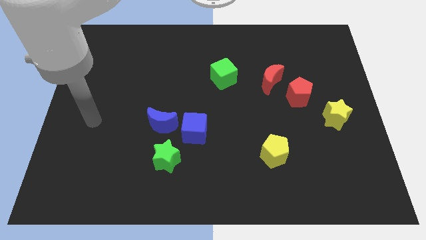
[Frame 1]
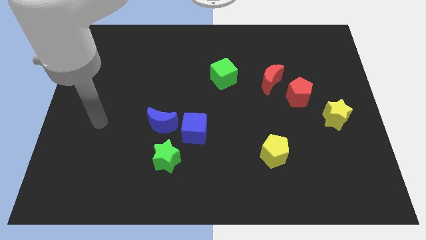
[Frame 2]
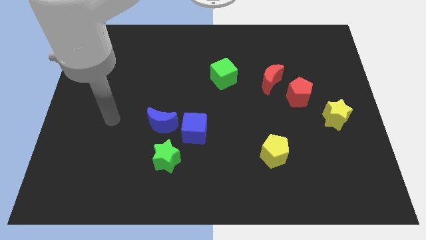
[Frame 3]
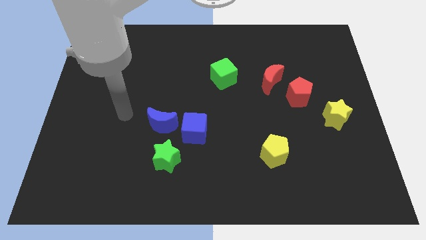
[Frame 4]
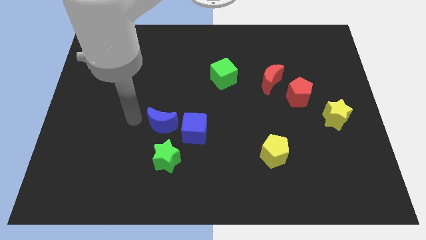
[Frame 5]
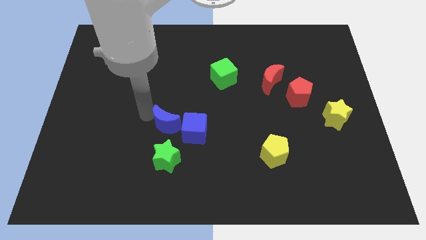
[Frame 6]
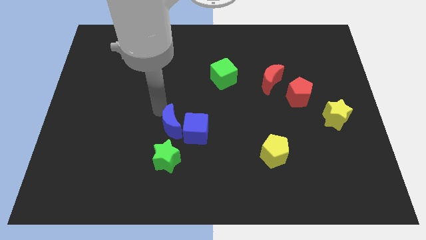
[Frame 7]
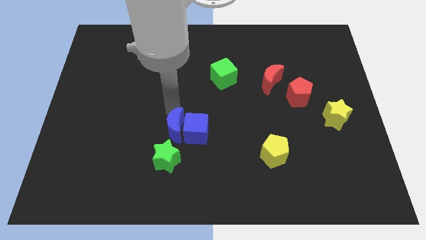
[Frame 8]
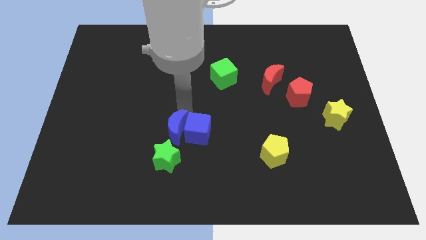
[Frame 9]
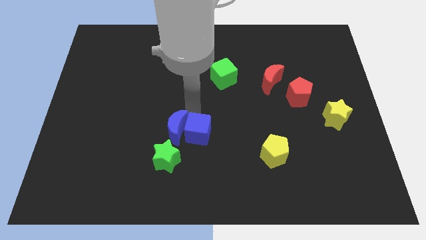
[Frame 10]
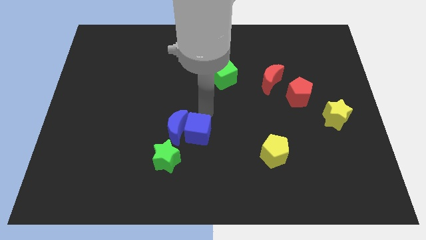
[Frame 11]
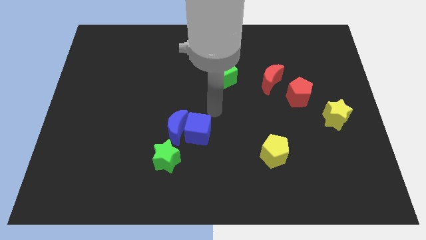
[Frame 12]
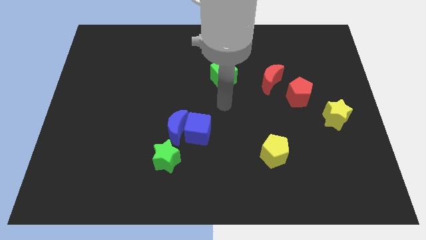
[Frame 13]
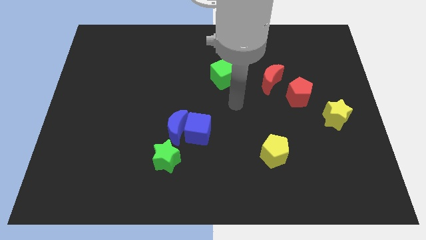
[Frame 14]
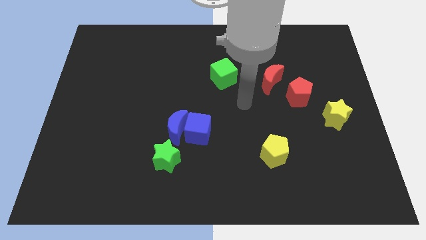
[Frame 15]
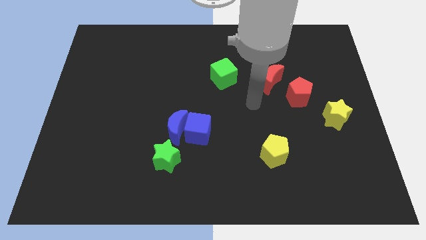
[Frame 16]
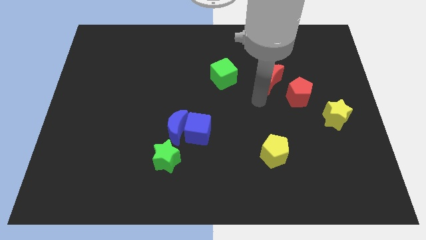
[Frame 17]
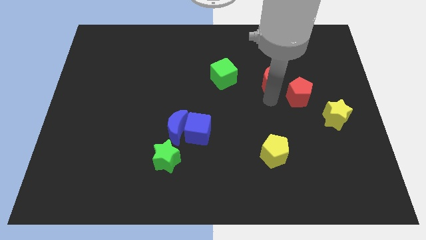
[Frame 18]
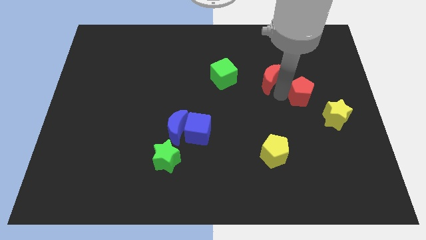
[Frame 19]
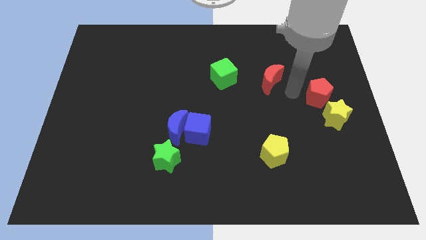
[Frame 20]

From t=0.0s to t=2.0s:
pull the red moon apart from the red pentagon

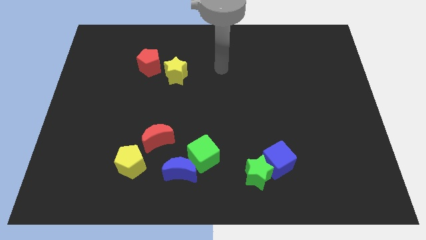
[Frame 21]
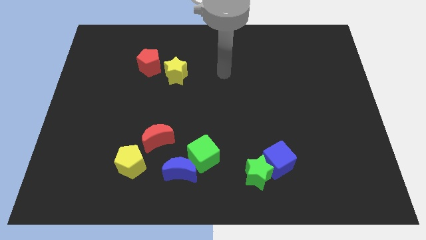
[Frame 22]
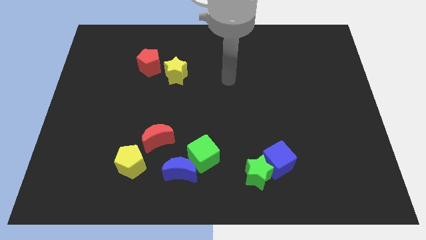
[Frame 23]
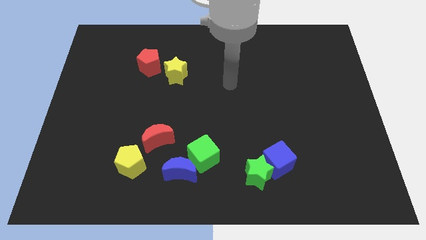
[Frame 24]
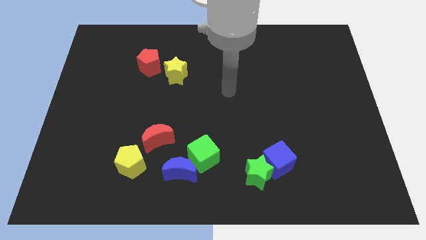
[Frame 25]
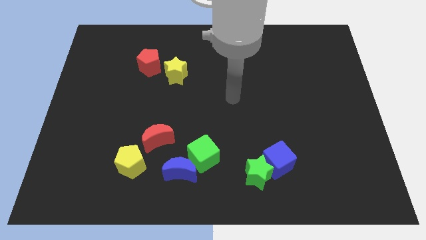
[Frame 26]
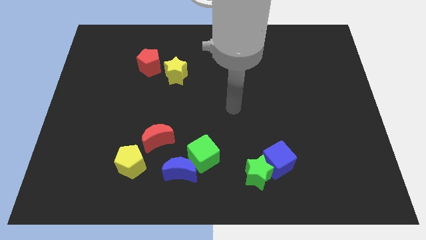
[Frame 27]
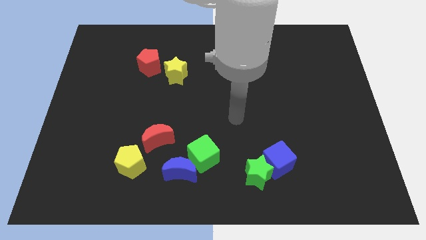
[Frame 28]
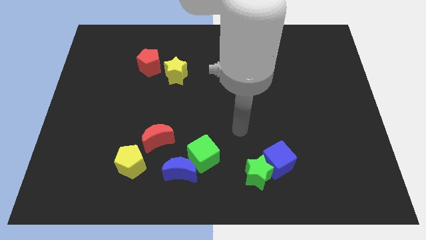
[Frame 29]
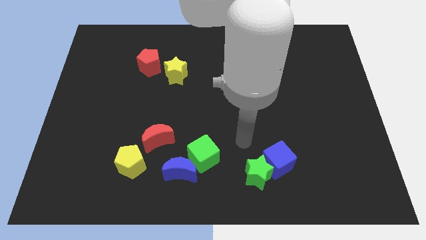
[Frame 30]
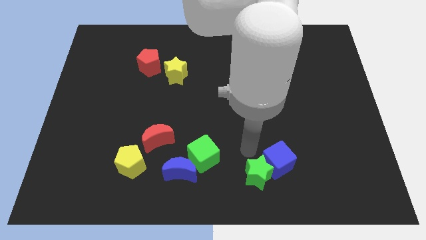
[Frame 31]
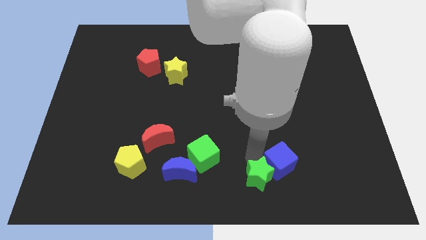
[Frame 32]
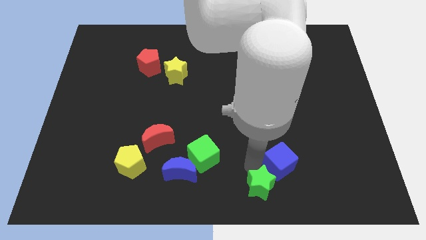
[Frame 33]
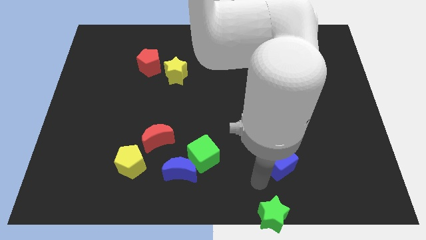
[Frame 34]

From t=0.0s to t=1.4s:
move the blue cube away from the green star

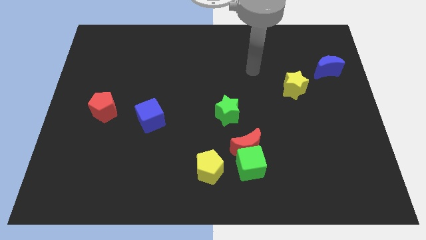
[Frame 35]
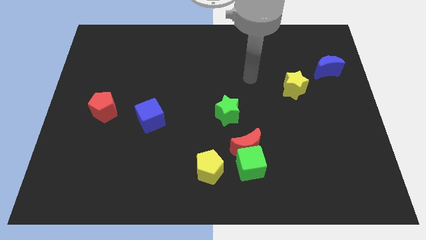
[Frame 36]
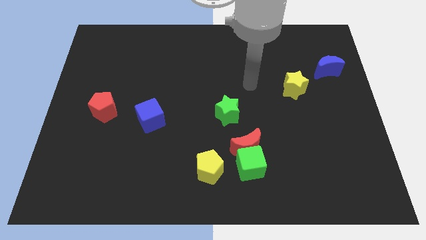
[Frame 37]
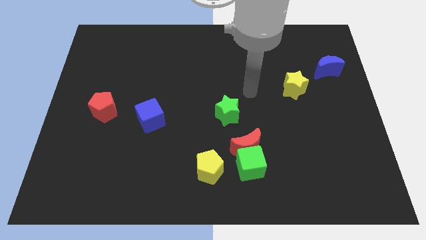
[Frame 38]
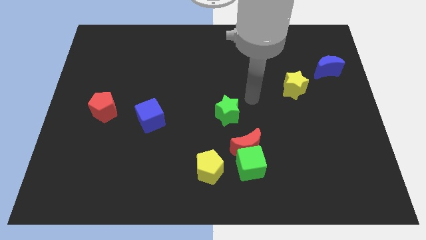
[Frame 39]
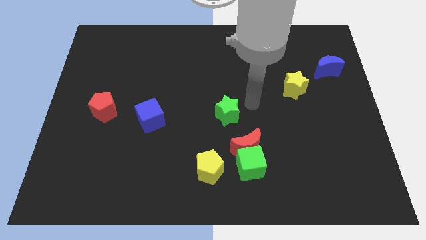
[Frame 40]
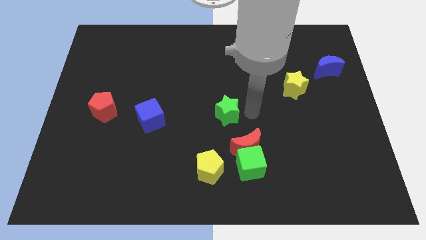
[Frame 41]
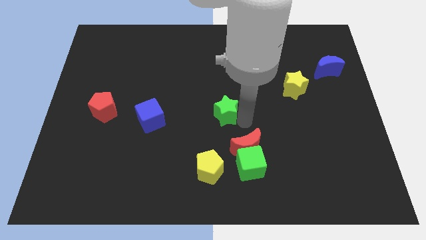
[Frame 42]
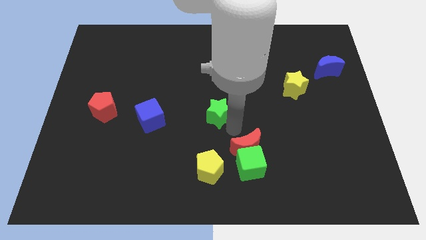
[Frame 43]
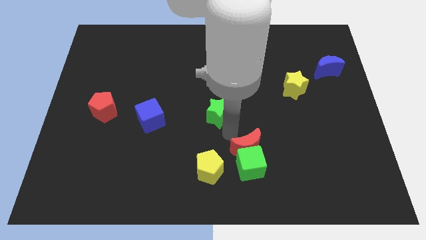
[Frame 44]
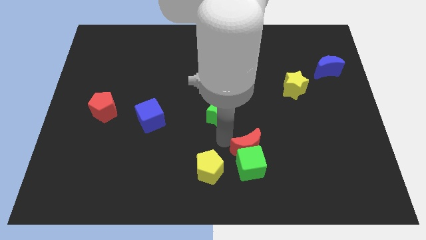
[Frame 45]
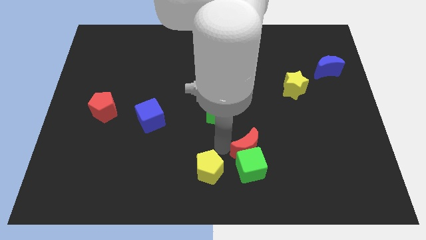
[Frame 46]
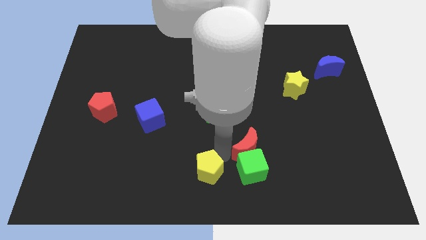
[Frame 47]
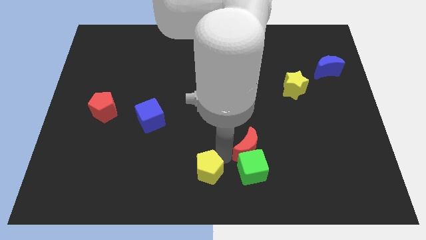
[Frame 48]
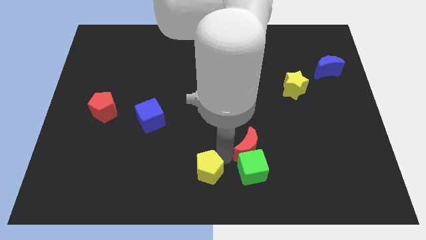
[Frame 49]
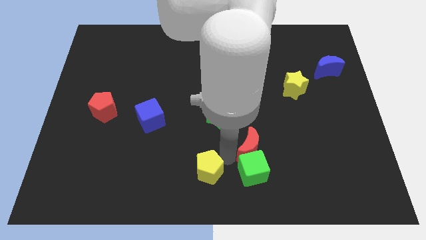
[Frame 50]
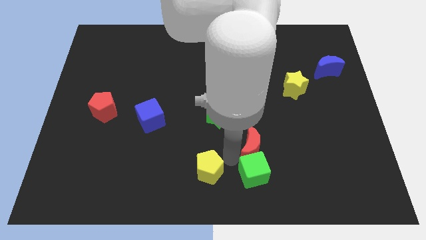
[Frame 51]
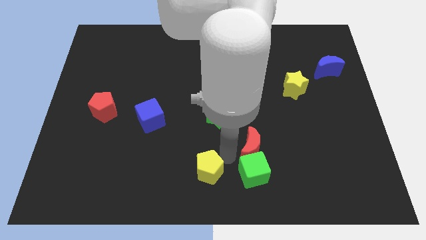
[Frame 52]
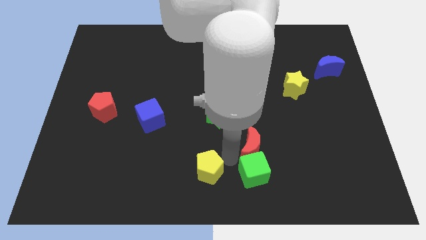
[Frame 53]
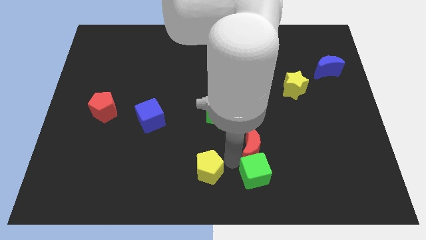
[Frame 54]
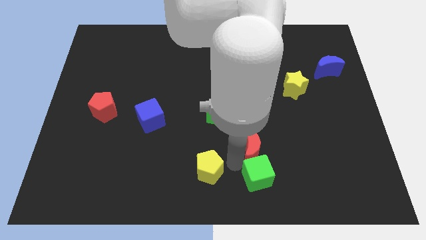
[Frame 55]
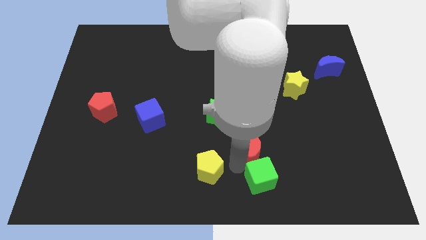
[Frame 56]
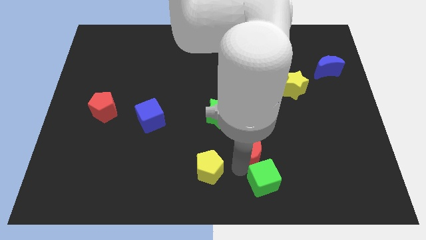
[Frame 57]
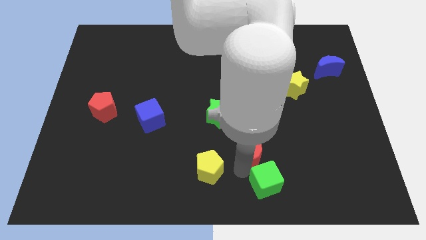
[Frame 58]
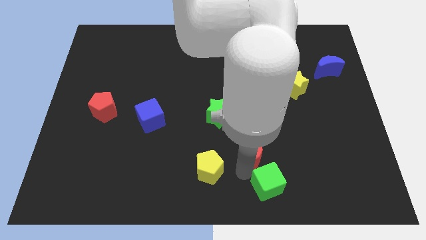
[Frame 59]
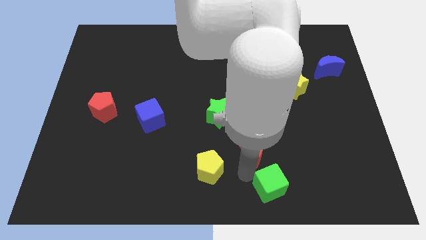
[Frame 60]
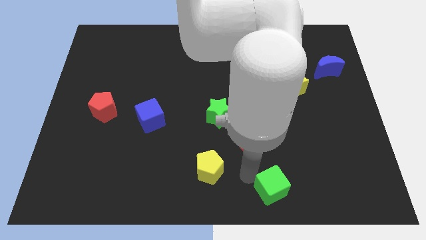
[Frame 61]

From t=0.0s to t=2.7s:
move the green cube away from the red moon and yellow pentagon

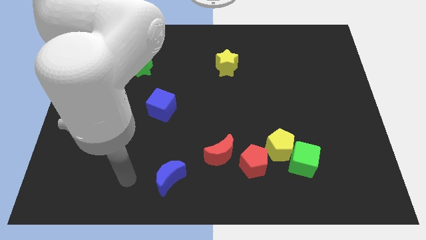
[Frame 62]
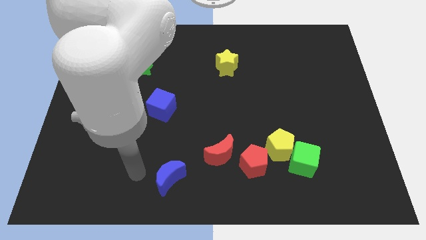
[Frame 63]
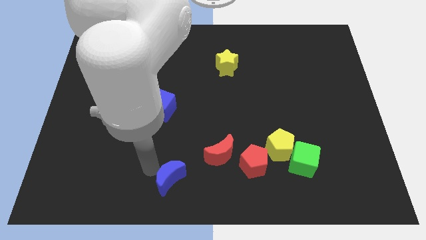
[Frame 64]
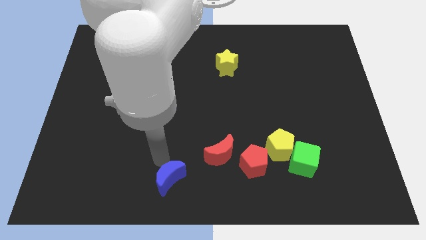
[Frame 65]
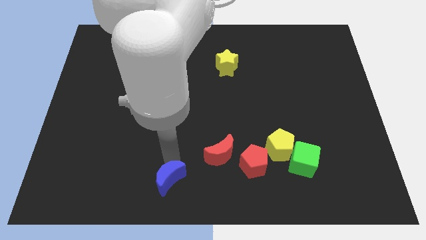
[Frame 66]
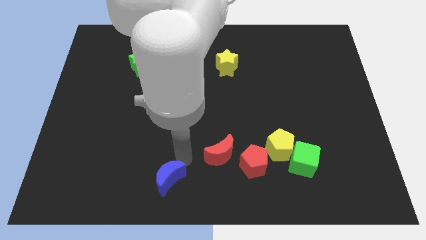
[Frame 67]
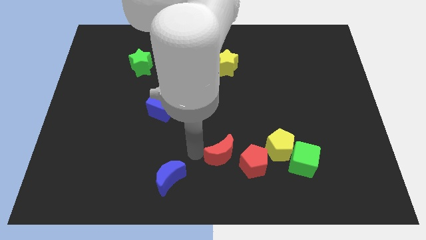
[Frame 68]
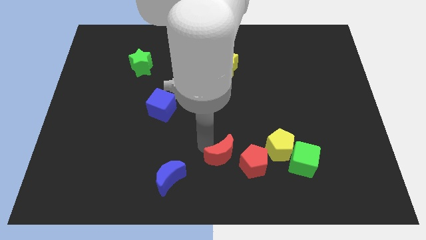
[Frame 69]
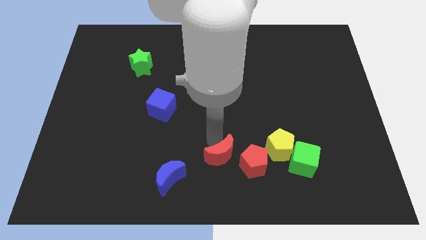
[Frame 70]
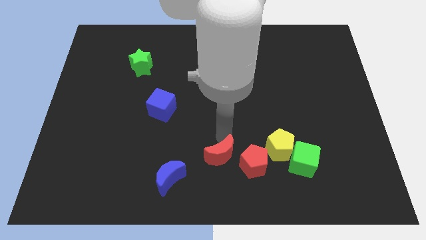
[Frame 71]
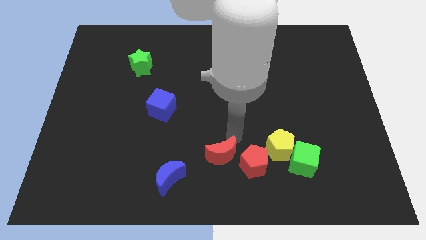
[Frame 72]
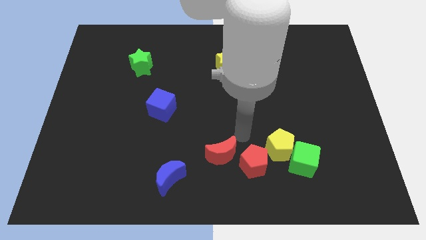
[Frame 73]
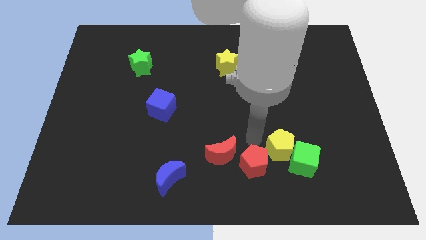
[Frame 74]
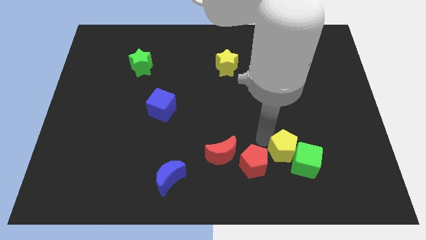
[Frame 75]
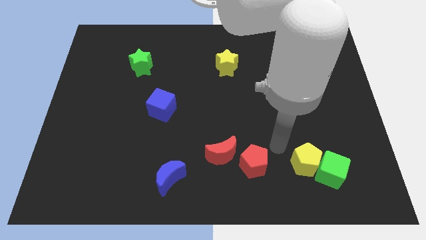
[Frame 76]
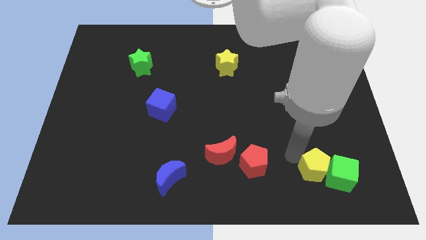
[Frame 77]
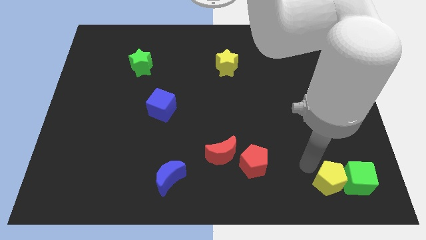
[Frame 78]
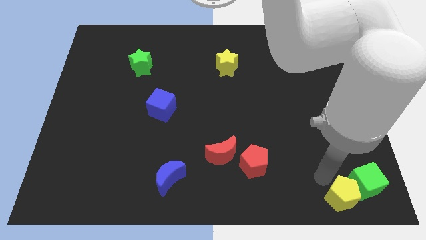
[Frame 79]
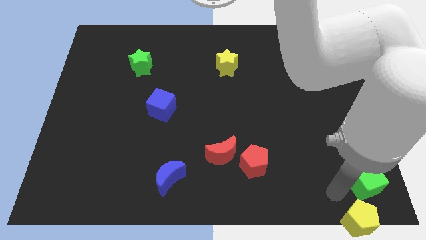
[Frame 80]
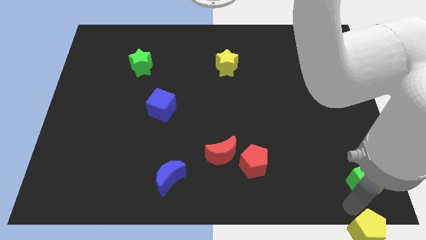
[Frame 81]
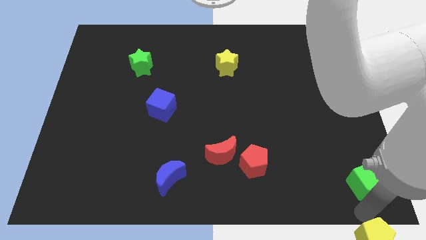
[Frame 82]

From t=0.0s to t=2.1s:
move the green cube away from the yellow pentagon

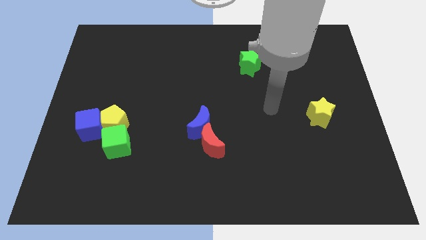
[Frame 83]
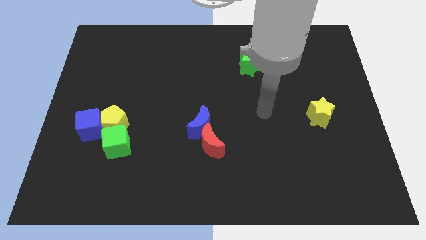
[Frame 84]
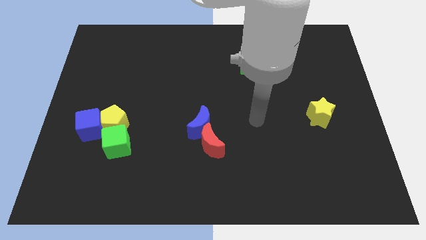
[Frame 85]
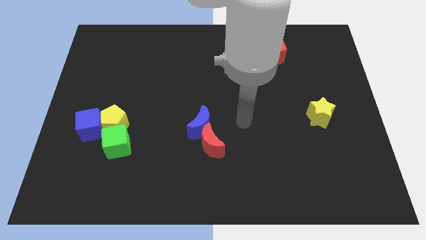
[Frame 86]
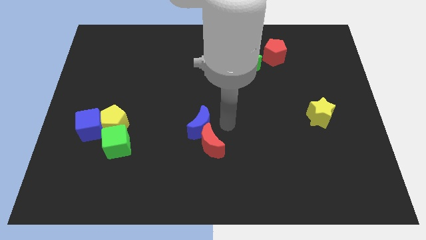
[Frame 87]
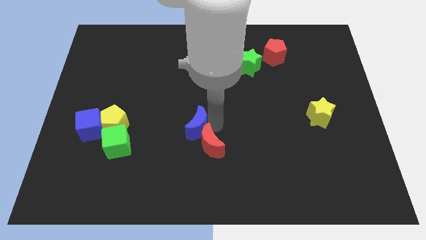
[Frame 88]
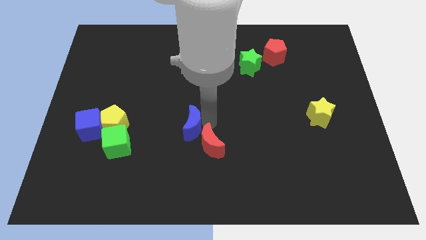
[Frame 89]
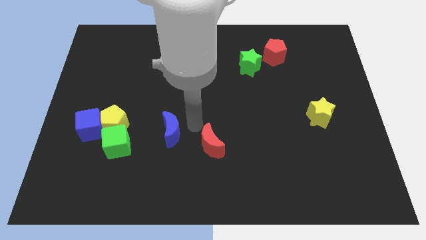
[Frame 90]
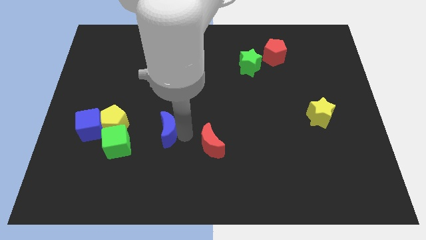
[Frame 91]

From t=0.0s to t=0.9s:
separate the red moon from the blue moon

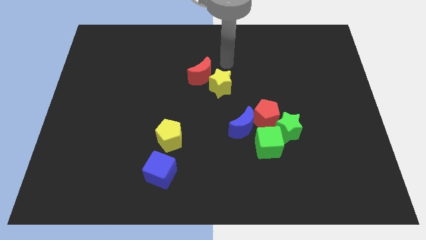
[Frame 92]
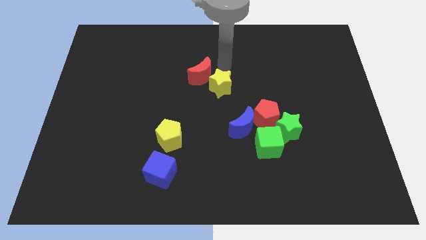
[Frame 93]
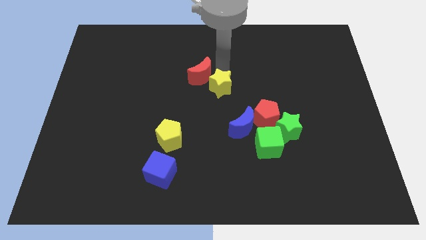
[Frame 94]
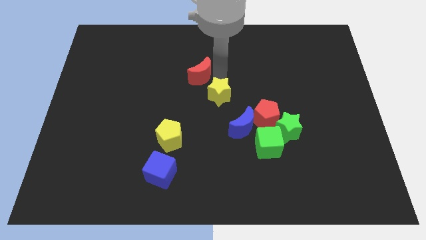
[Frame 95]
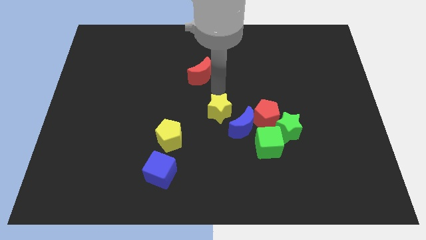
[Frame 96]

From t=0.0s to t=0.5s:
pull the red moon apart from the yellow star
